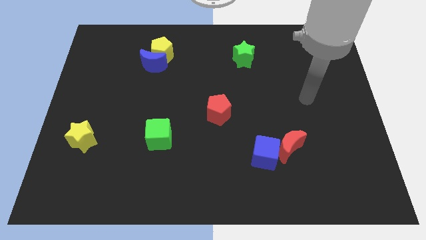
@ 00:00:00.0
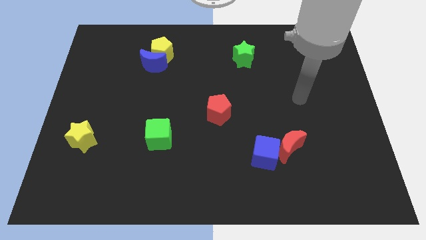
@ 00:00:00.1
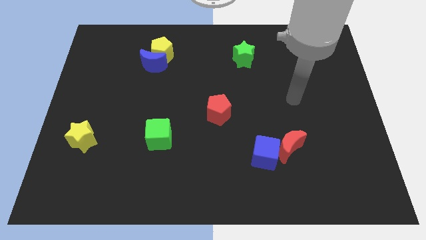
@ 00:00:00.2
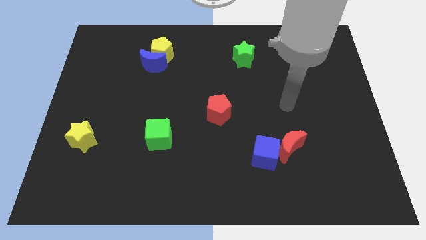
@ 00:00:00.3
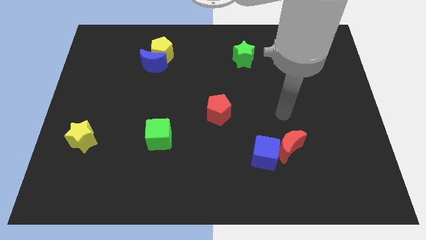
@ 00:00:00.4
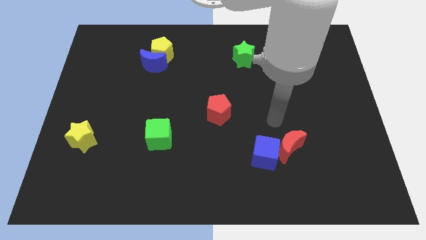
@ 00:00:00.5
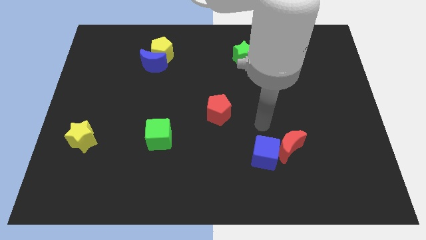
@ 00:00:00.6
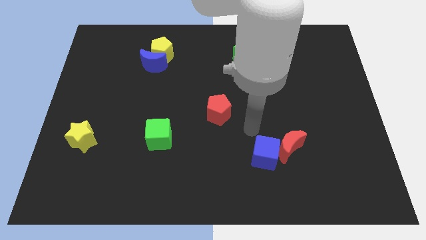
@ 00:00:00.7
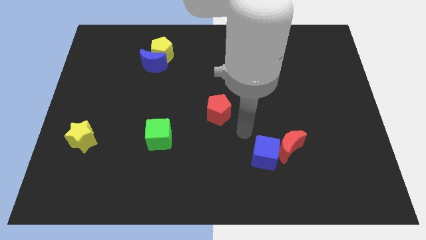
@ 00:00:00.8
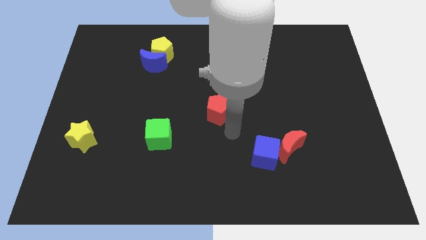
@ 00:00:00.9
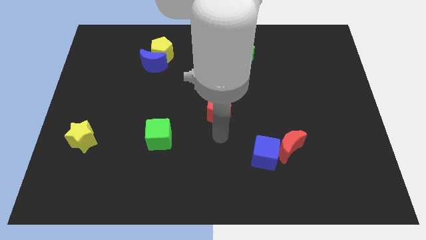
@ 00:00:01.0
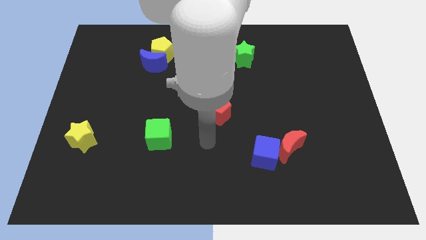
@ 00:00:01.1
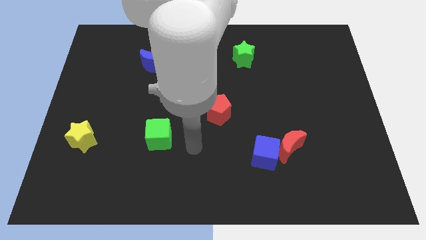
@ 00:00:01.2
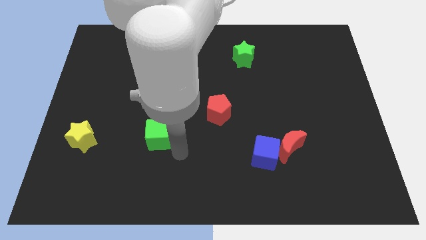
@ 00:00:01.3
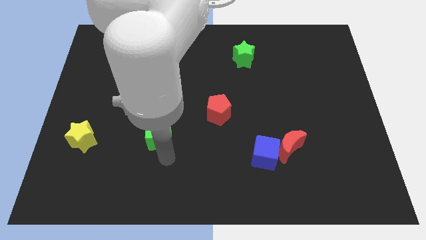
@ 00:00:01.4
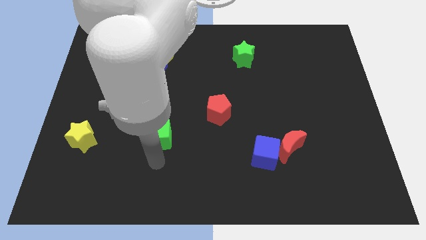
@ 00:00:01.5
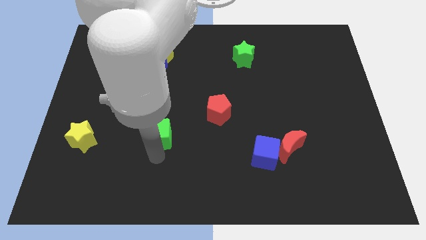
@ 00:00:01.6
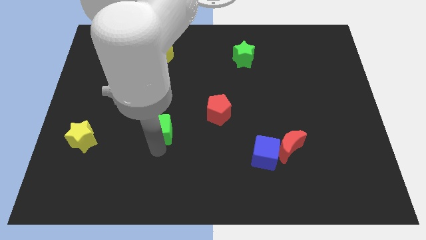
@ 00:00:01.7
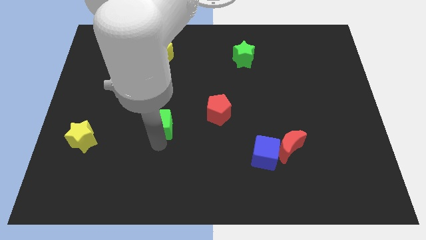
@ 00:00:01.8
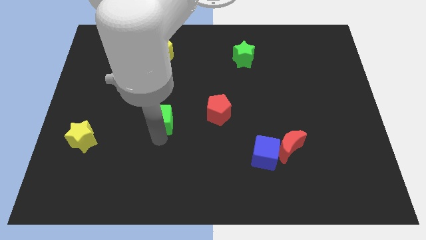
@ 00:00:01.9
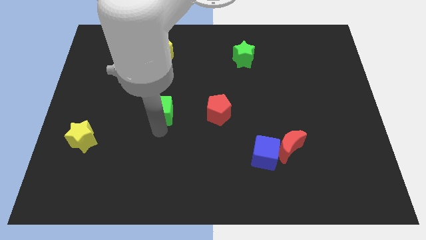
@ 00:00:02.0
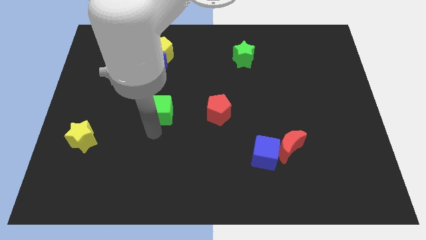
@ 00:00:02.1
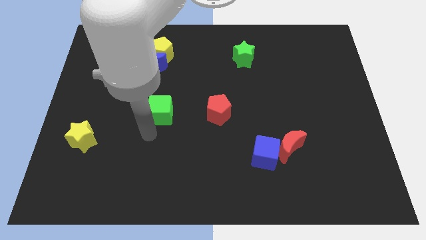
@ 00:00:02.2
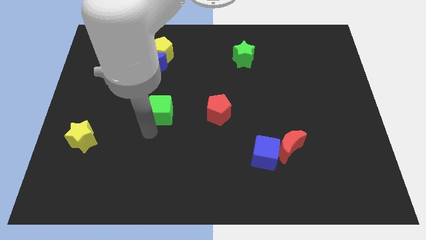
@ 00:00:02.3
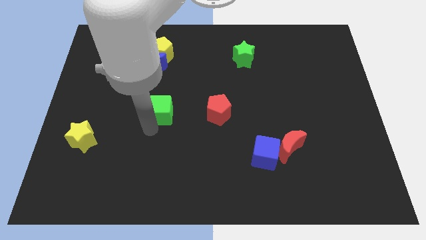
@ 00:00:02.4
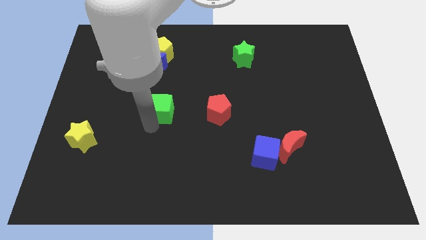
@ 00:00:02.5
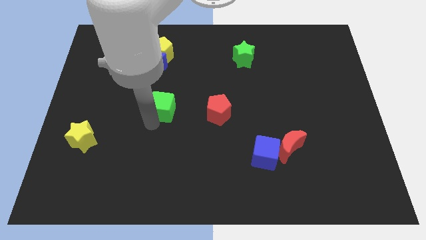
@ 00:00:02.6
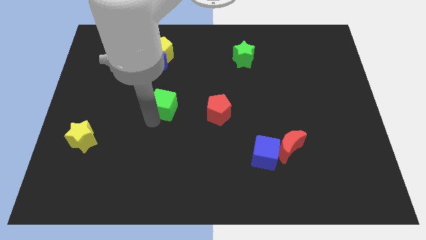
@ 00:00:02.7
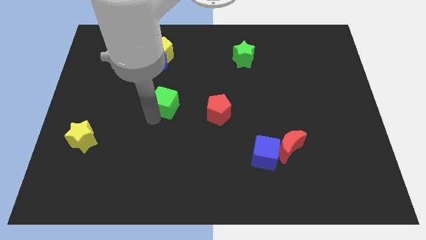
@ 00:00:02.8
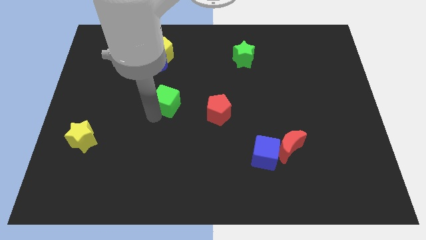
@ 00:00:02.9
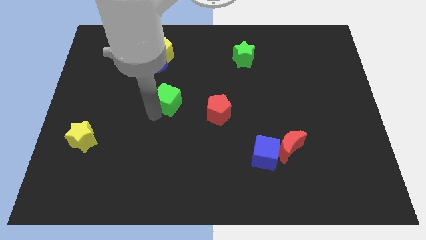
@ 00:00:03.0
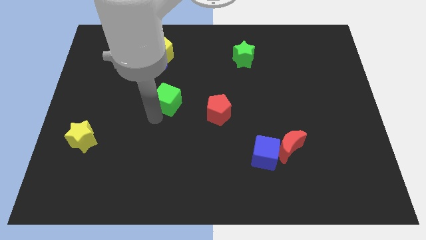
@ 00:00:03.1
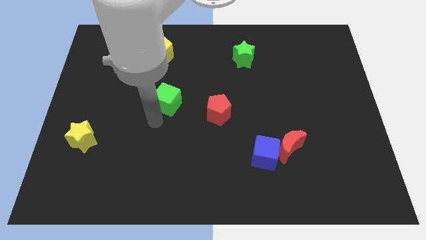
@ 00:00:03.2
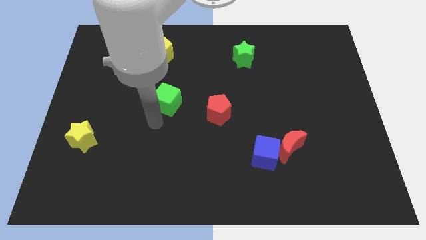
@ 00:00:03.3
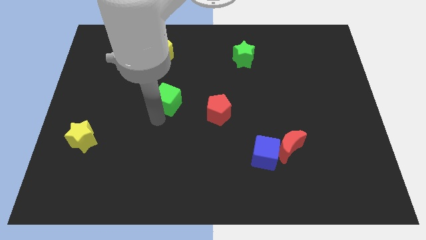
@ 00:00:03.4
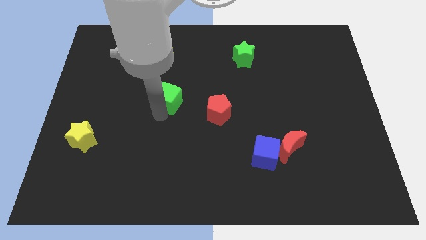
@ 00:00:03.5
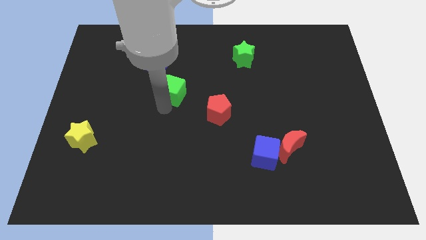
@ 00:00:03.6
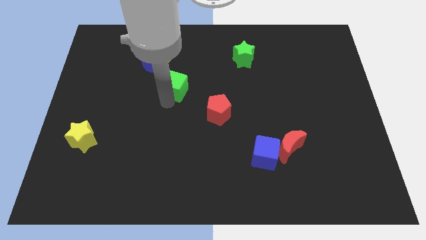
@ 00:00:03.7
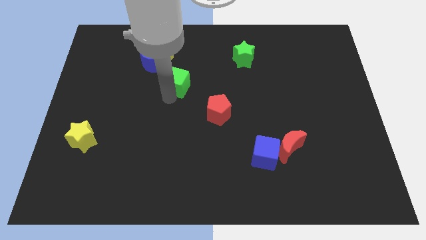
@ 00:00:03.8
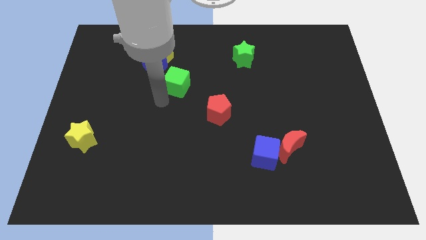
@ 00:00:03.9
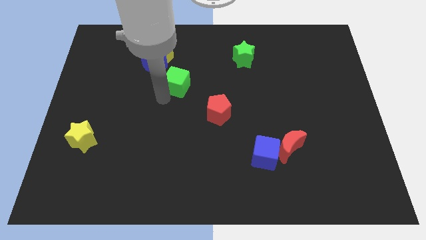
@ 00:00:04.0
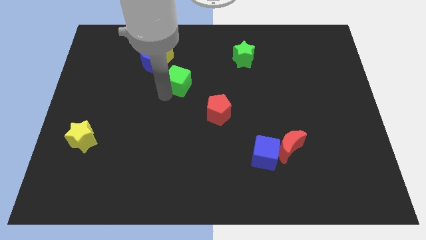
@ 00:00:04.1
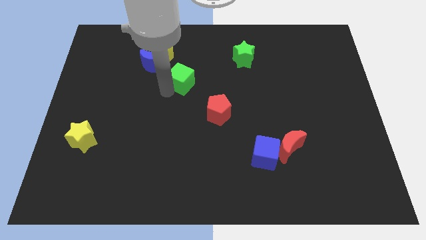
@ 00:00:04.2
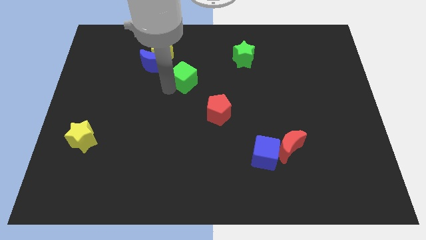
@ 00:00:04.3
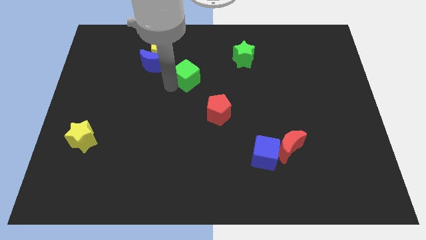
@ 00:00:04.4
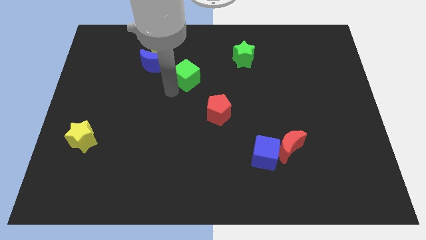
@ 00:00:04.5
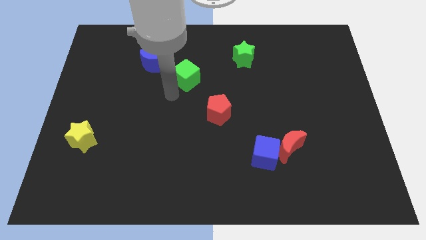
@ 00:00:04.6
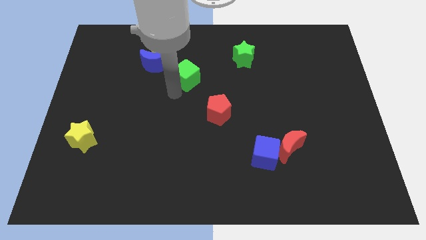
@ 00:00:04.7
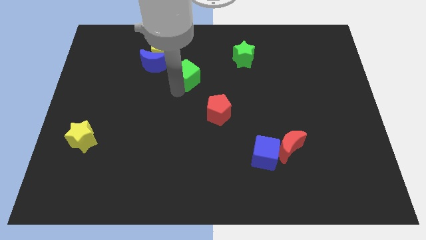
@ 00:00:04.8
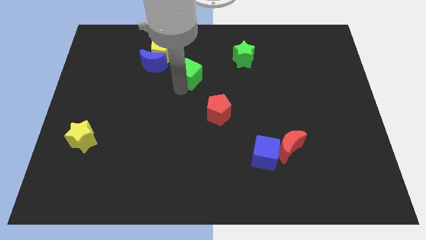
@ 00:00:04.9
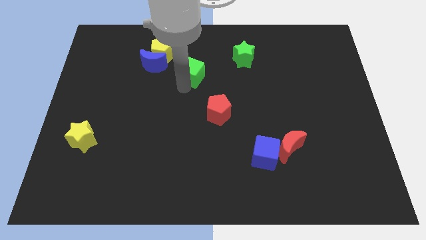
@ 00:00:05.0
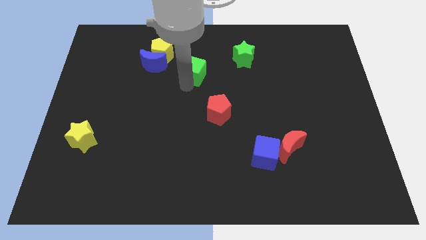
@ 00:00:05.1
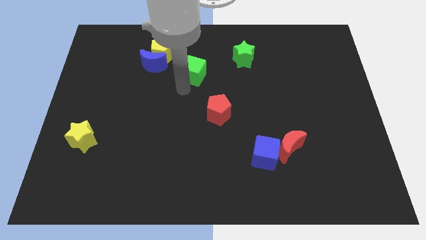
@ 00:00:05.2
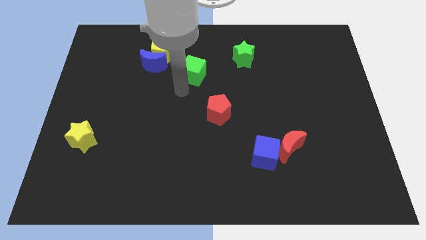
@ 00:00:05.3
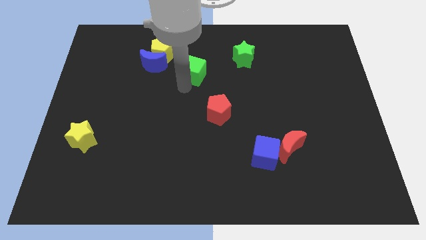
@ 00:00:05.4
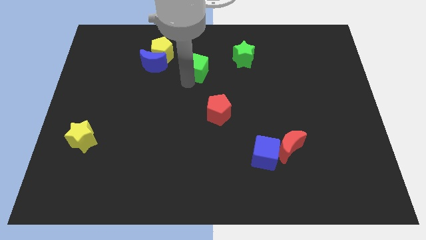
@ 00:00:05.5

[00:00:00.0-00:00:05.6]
put the green cube to the left of the green star

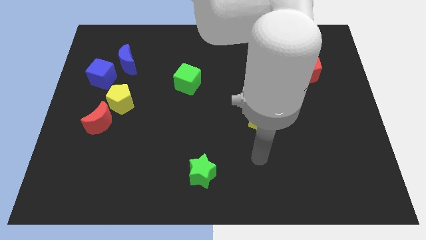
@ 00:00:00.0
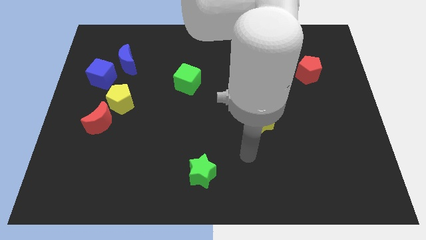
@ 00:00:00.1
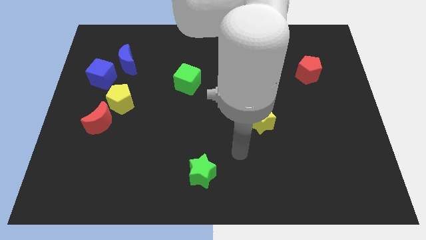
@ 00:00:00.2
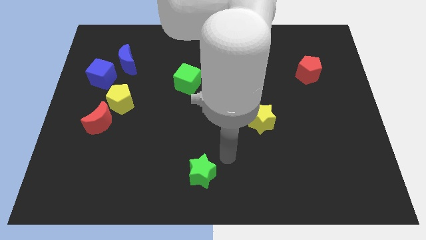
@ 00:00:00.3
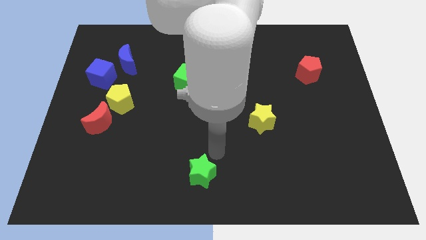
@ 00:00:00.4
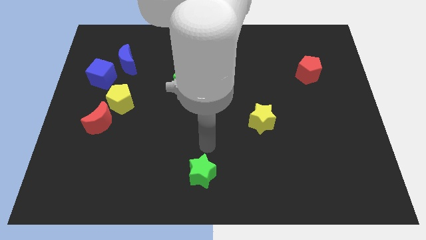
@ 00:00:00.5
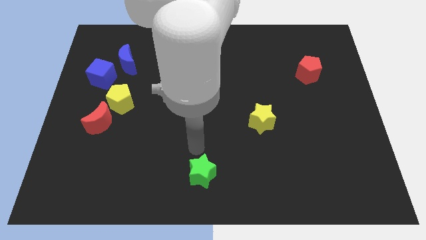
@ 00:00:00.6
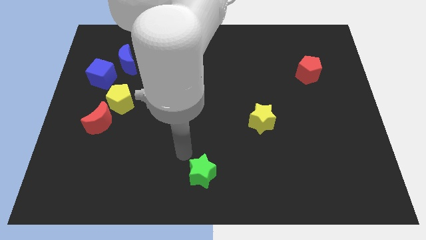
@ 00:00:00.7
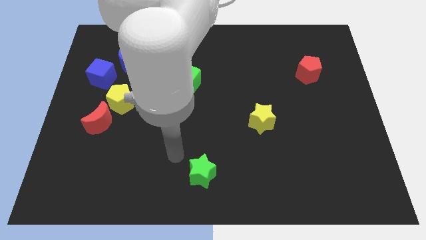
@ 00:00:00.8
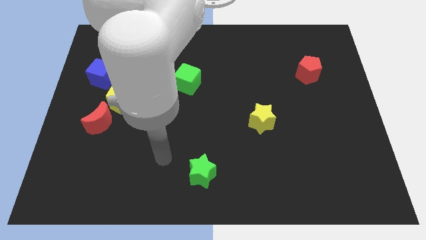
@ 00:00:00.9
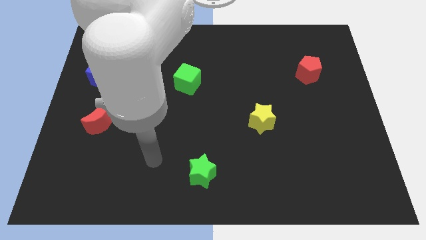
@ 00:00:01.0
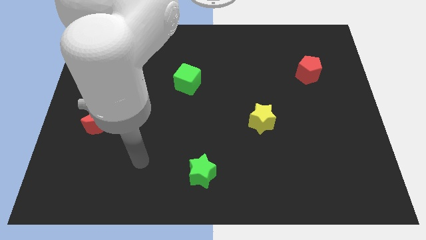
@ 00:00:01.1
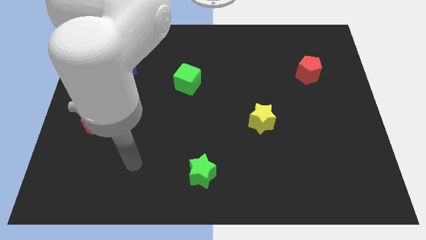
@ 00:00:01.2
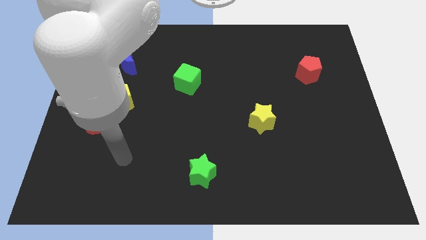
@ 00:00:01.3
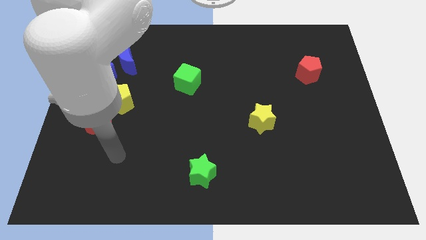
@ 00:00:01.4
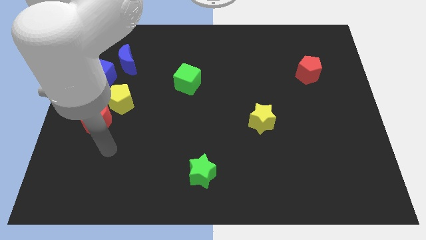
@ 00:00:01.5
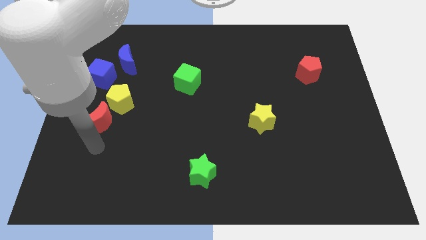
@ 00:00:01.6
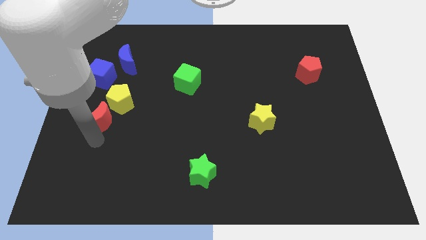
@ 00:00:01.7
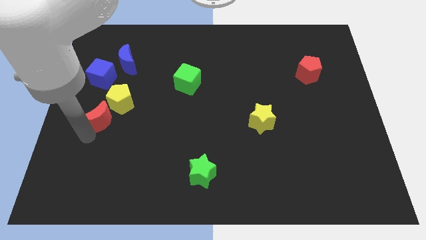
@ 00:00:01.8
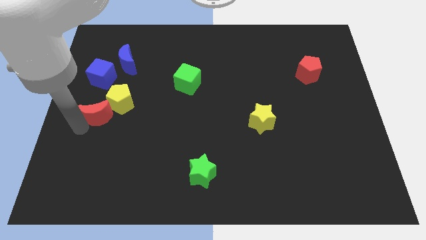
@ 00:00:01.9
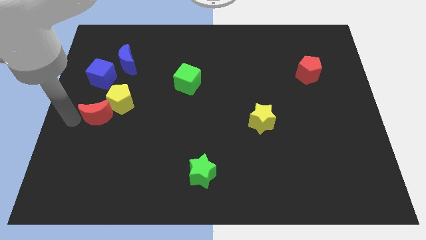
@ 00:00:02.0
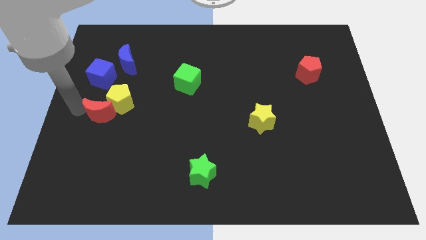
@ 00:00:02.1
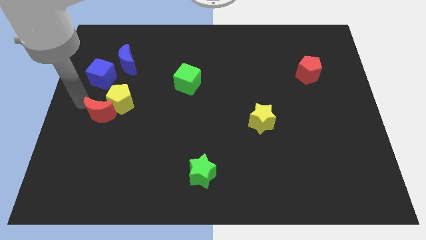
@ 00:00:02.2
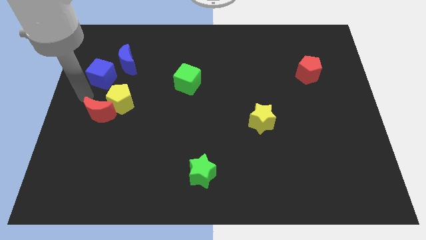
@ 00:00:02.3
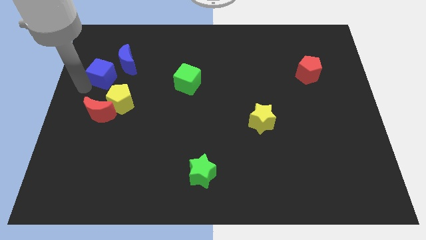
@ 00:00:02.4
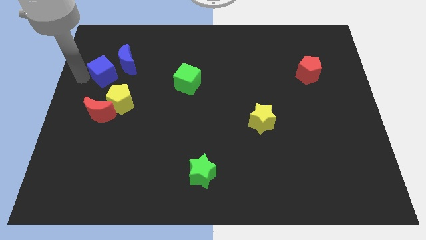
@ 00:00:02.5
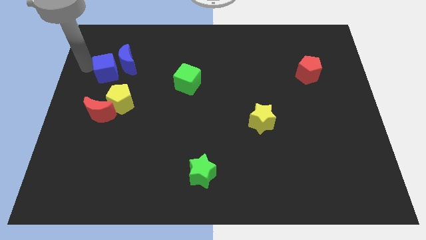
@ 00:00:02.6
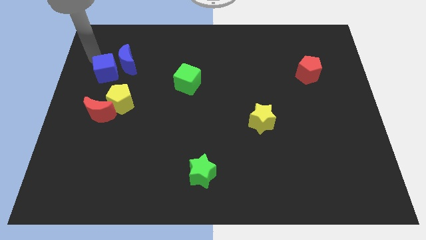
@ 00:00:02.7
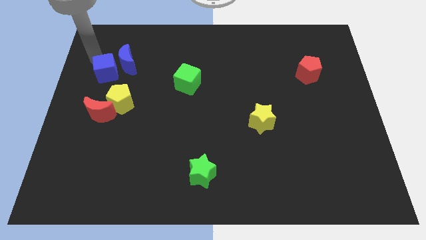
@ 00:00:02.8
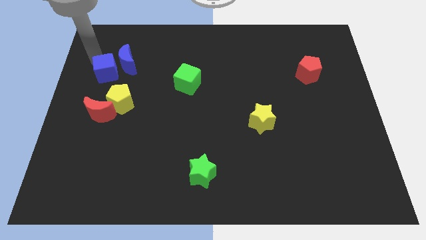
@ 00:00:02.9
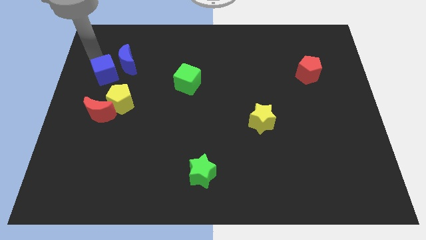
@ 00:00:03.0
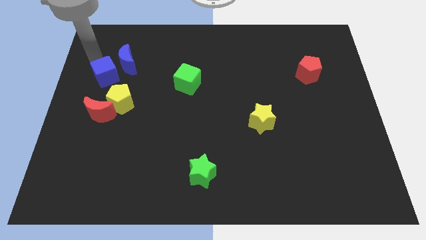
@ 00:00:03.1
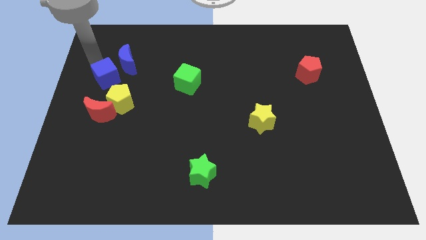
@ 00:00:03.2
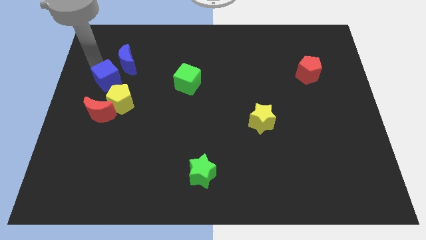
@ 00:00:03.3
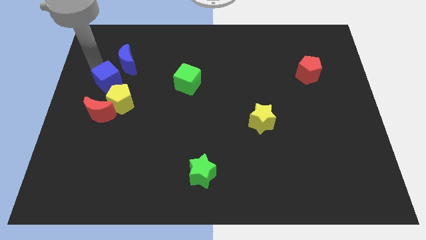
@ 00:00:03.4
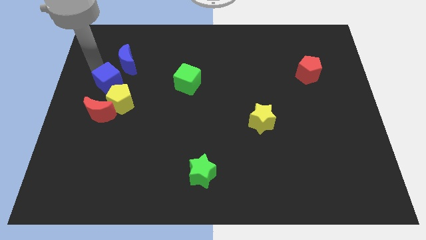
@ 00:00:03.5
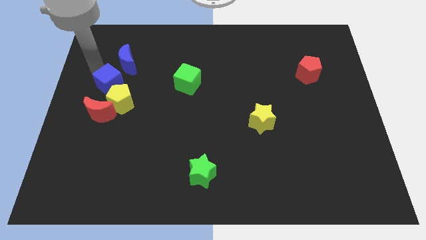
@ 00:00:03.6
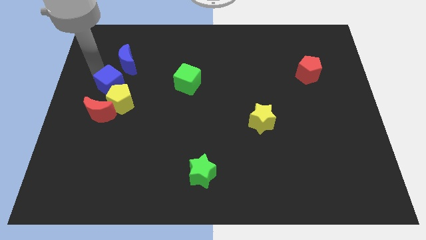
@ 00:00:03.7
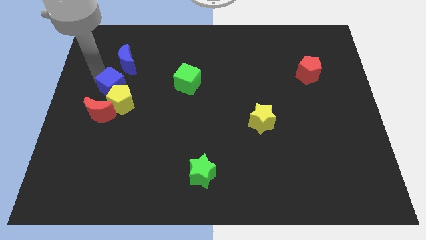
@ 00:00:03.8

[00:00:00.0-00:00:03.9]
push the blue cube to the top right of the red moon
